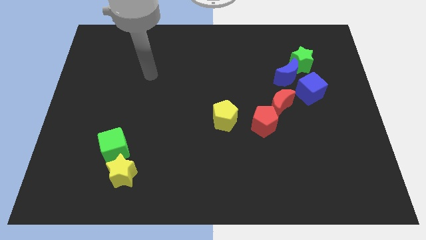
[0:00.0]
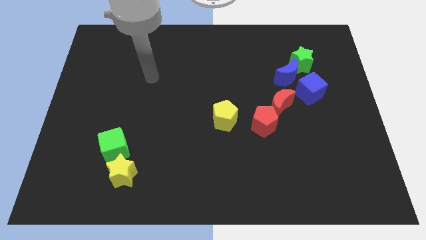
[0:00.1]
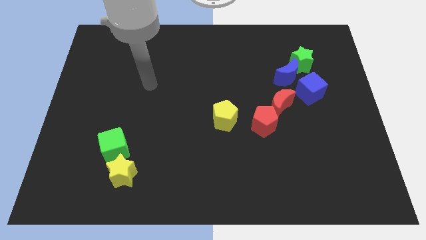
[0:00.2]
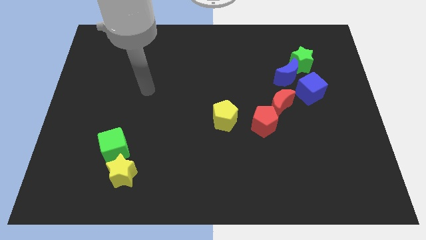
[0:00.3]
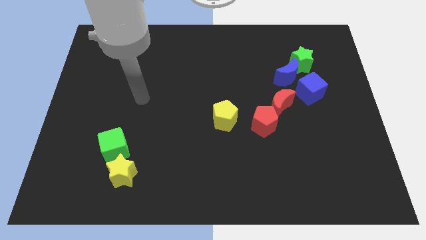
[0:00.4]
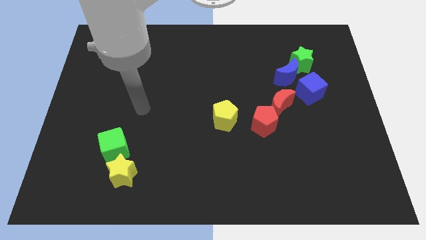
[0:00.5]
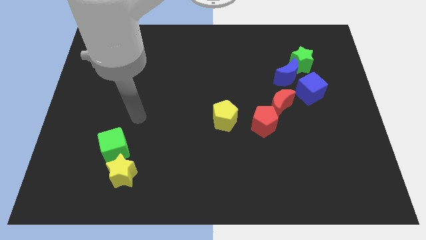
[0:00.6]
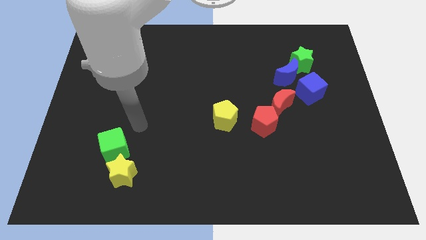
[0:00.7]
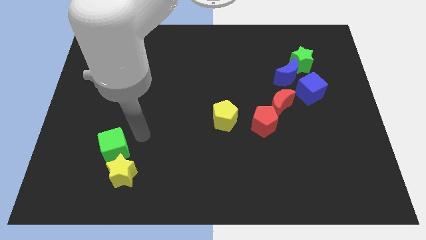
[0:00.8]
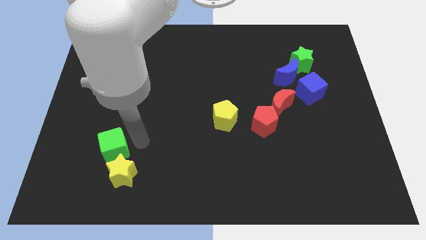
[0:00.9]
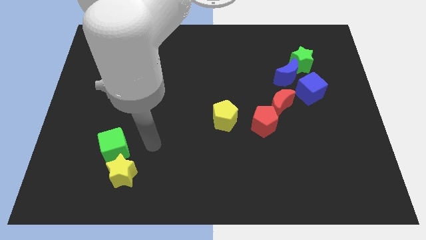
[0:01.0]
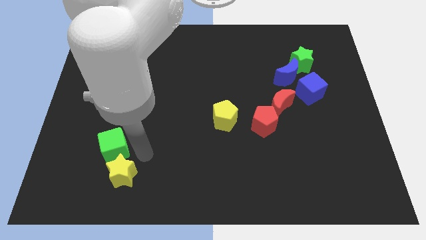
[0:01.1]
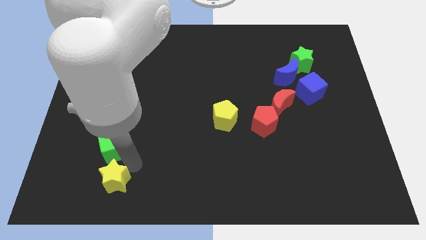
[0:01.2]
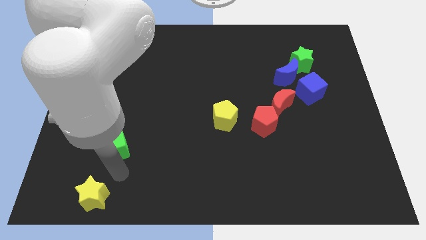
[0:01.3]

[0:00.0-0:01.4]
move the green cube away from the yellow star

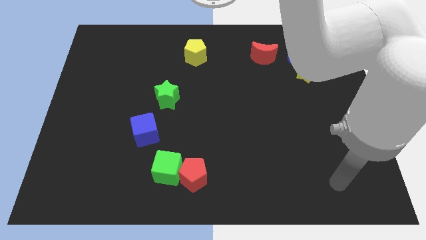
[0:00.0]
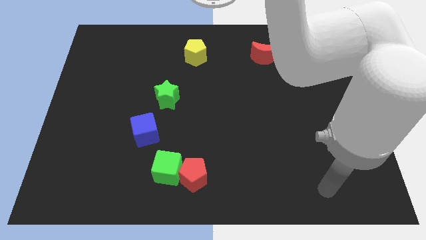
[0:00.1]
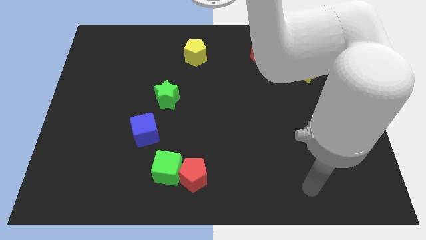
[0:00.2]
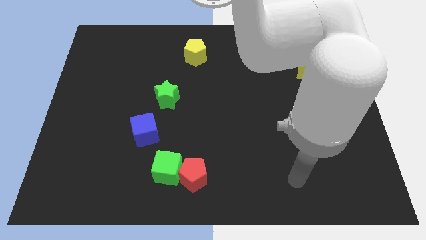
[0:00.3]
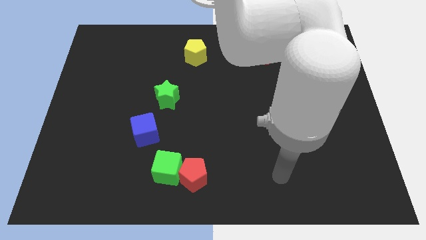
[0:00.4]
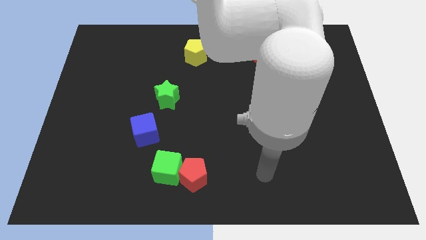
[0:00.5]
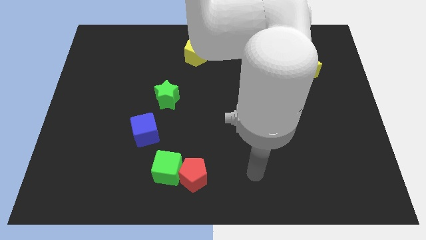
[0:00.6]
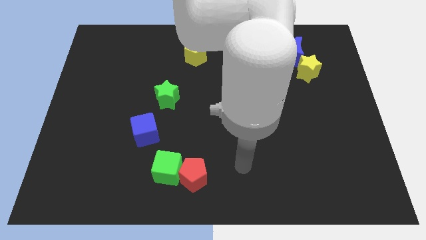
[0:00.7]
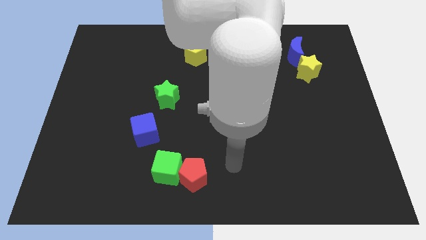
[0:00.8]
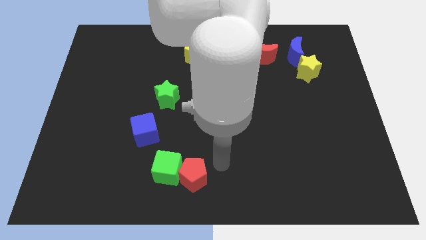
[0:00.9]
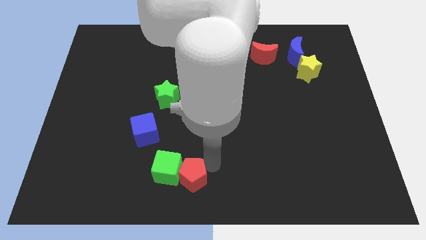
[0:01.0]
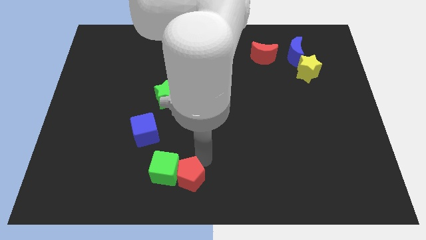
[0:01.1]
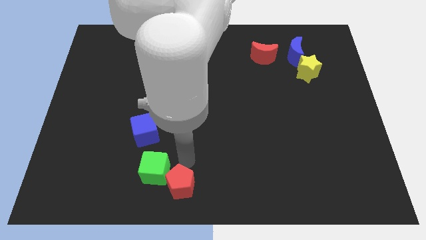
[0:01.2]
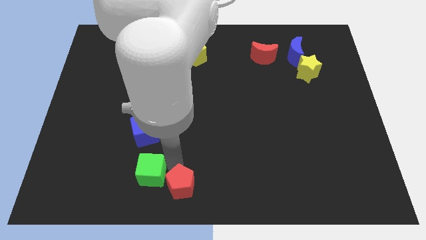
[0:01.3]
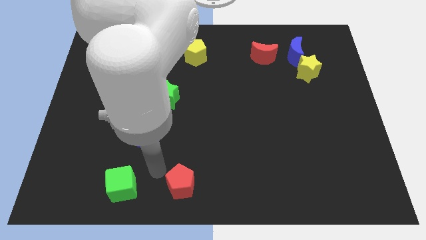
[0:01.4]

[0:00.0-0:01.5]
move the red pentagon away from the green cube

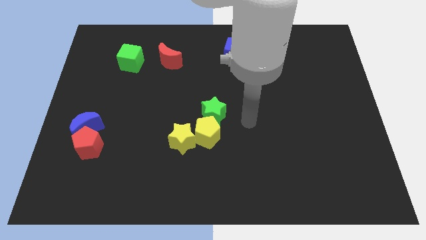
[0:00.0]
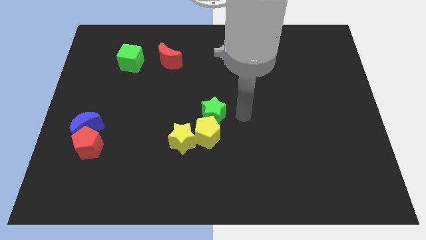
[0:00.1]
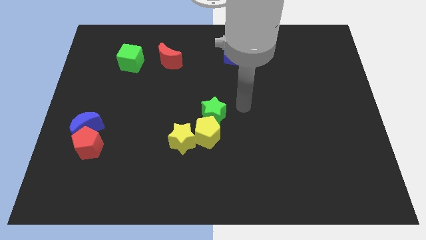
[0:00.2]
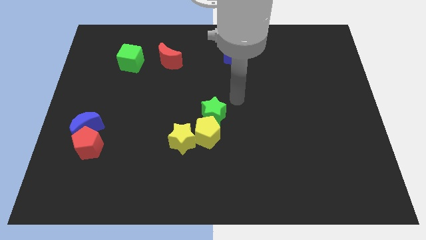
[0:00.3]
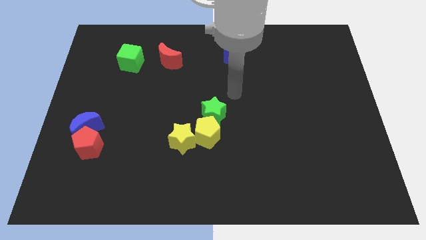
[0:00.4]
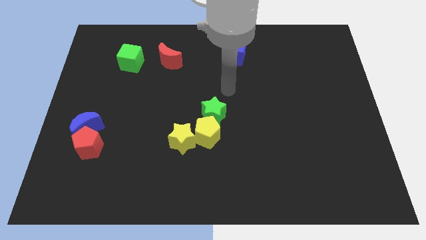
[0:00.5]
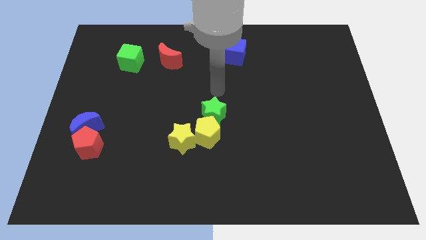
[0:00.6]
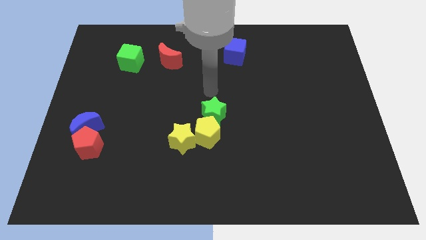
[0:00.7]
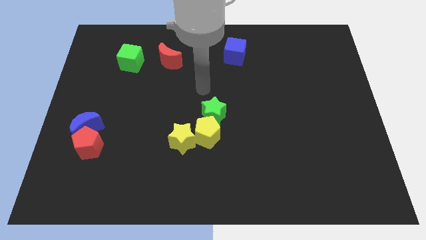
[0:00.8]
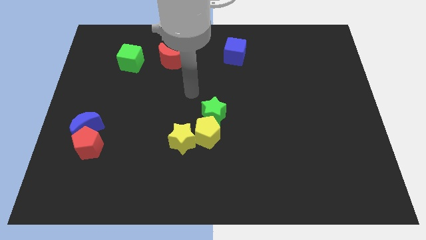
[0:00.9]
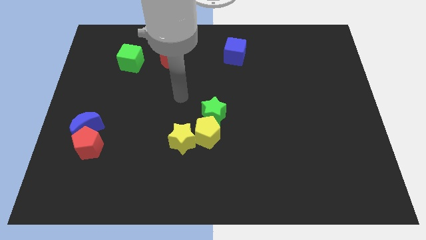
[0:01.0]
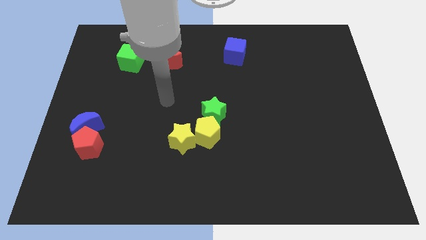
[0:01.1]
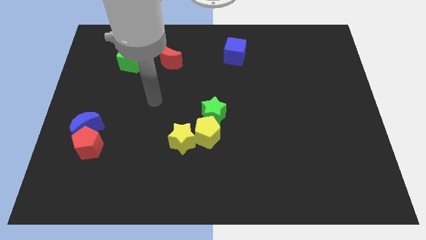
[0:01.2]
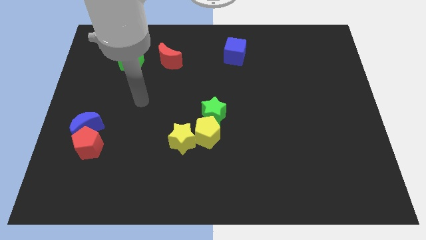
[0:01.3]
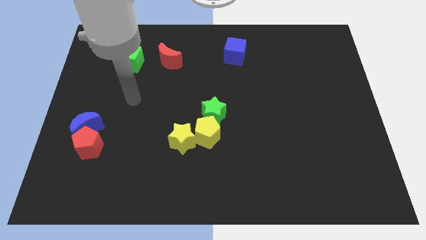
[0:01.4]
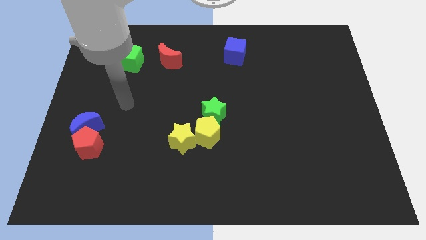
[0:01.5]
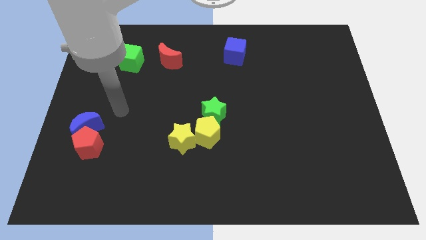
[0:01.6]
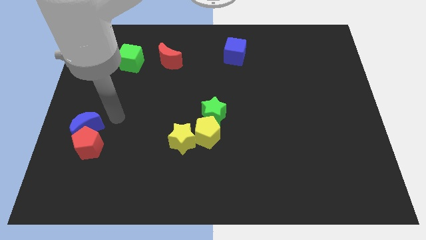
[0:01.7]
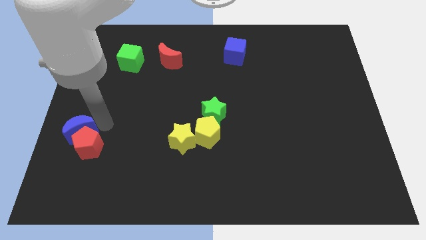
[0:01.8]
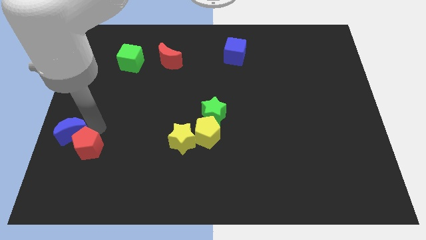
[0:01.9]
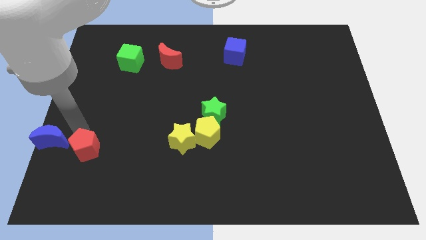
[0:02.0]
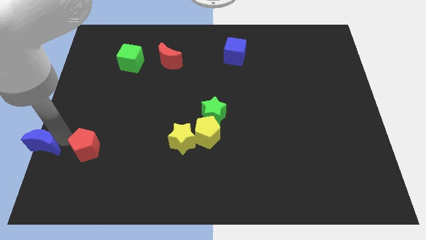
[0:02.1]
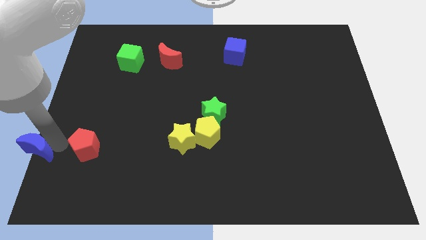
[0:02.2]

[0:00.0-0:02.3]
pull the red pentagon apart from the blue moon

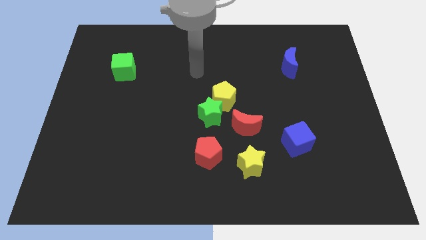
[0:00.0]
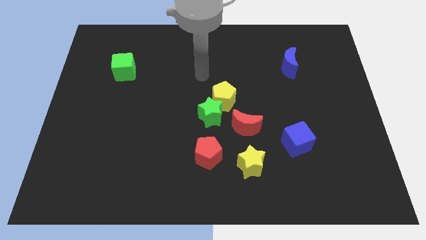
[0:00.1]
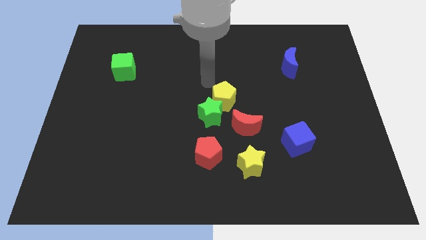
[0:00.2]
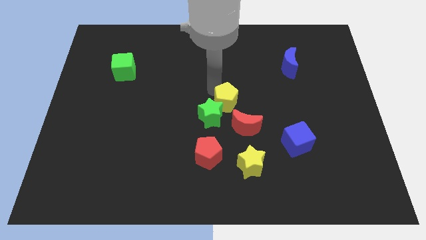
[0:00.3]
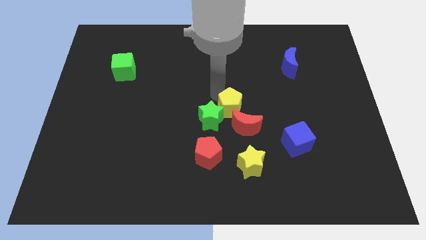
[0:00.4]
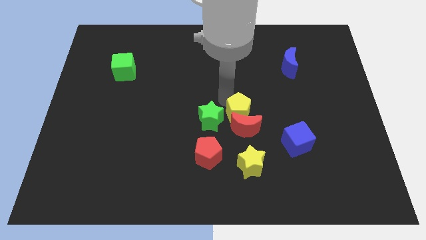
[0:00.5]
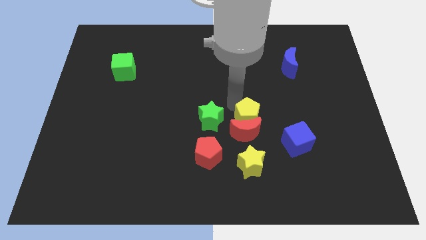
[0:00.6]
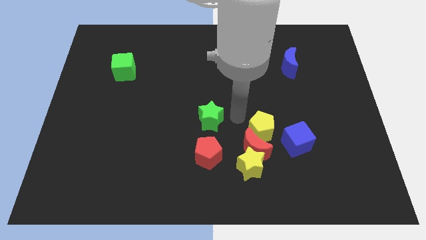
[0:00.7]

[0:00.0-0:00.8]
separate the green star from the yellow pentagon and red moon

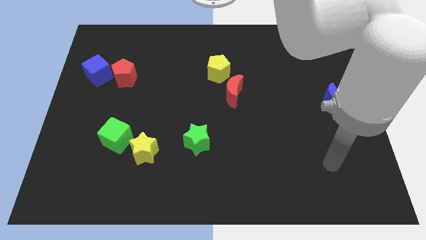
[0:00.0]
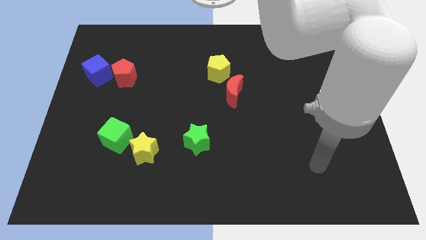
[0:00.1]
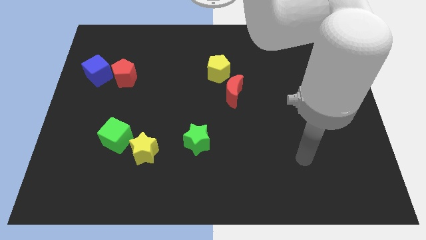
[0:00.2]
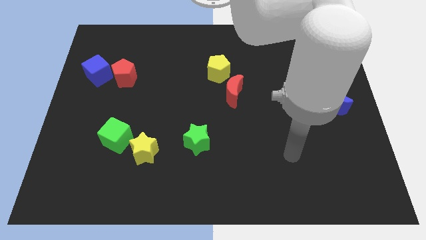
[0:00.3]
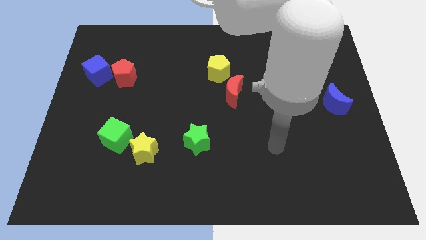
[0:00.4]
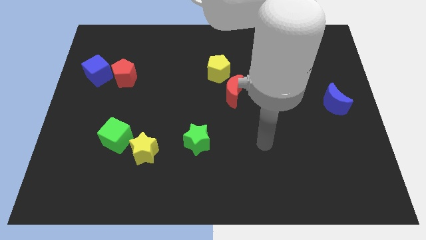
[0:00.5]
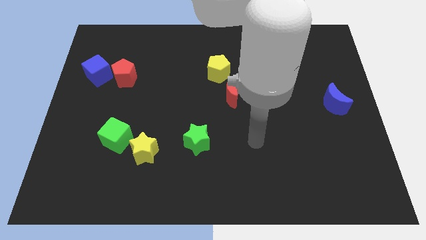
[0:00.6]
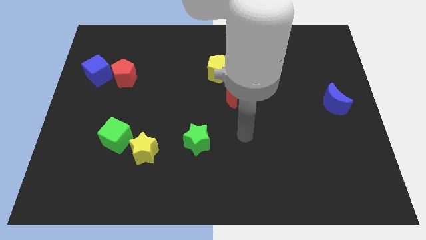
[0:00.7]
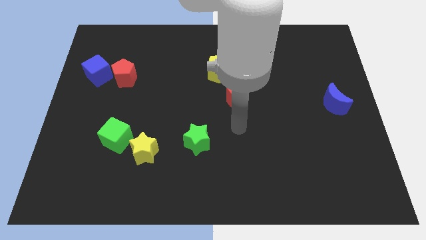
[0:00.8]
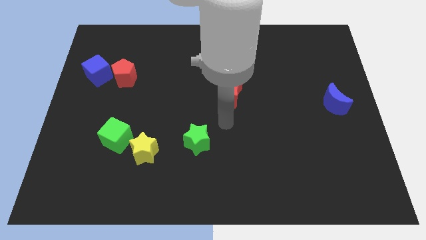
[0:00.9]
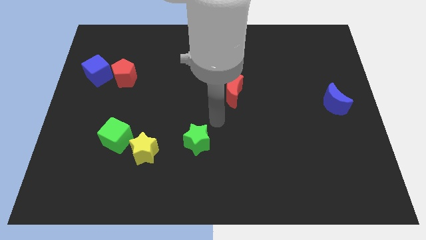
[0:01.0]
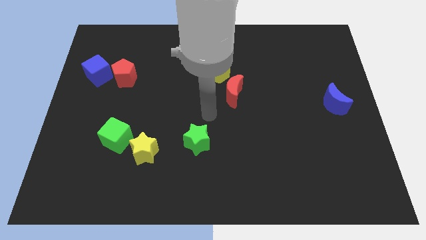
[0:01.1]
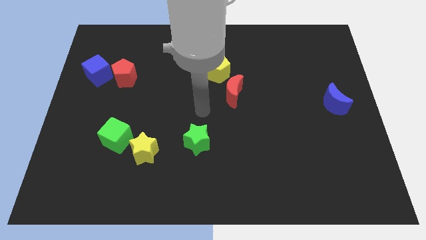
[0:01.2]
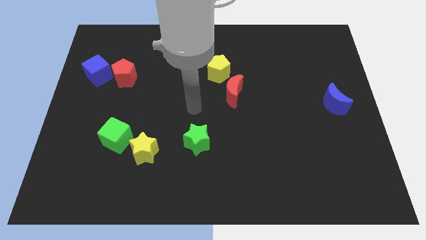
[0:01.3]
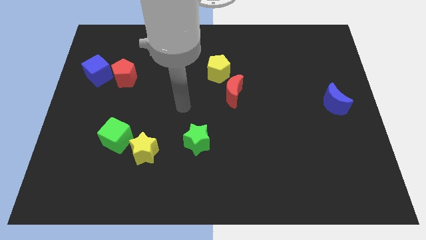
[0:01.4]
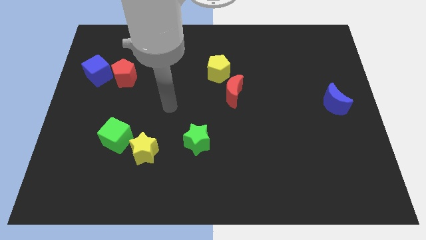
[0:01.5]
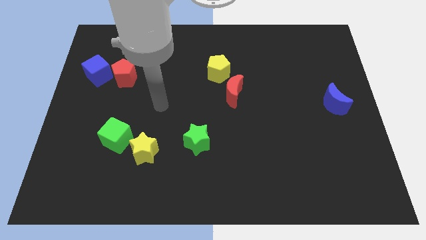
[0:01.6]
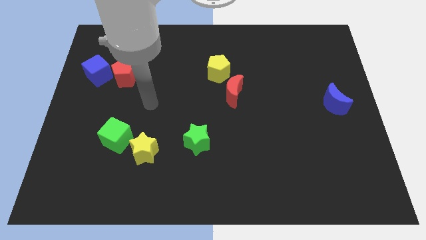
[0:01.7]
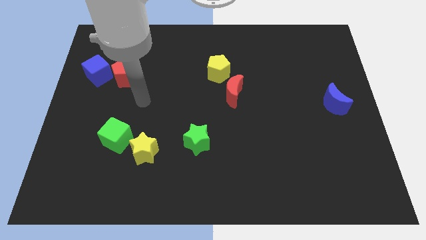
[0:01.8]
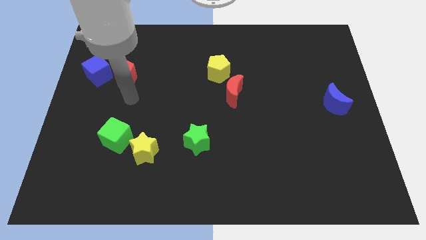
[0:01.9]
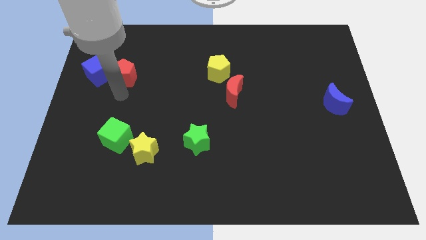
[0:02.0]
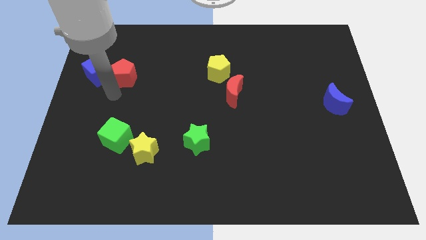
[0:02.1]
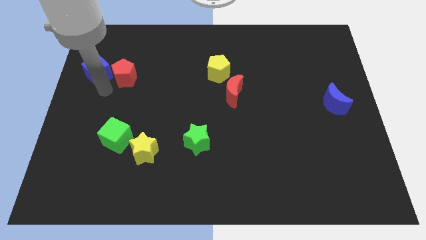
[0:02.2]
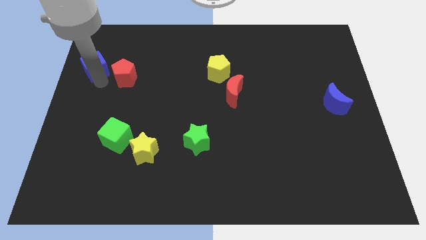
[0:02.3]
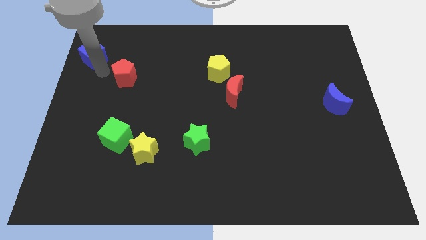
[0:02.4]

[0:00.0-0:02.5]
pull the red pentagon apart from the blue cube

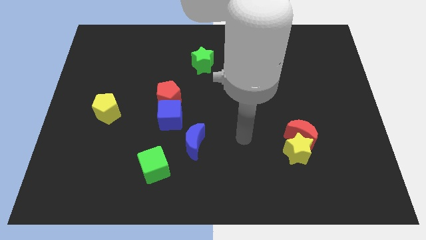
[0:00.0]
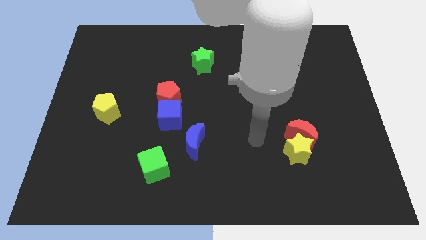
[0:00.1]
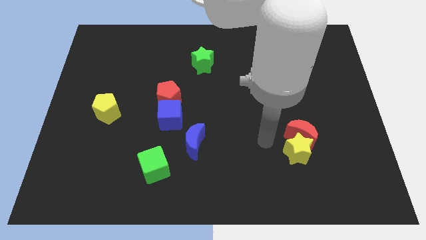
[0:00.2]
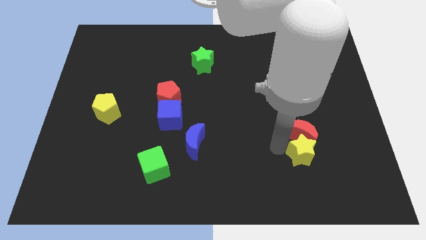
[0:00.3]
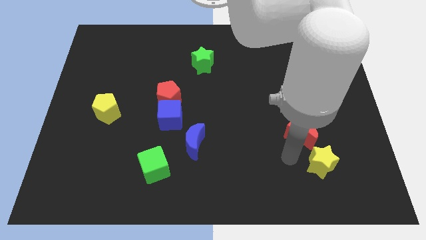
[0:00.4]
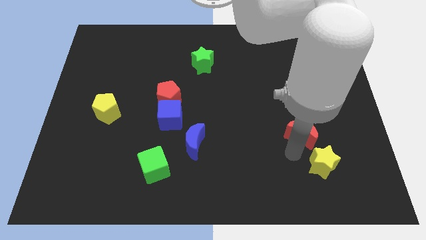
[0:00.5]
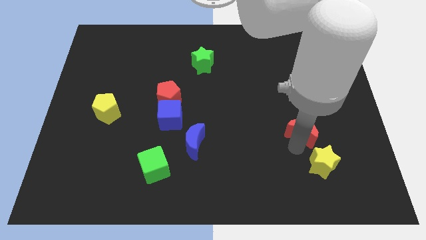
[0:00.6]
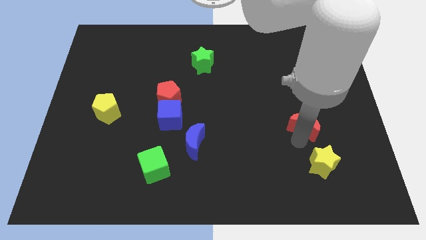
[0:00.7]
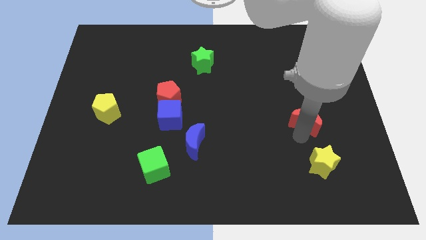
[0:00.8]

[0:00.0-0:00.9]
pull the red moon apart from the yellow star
